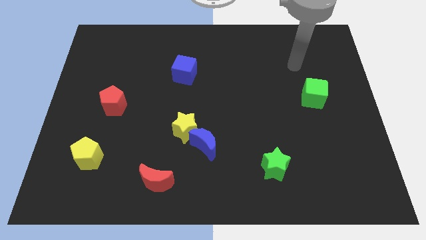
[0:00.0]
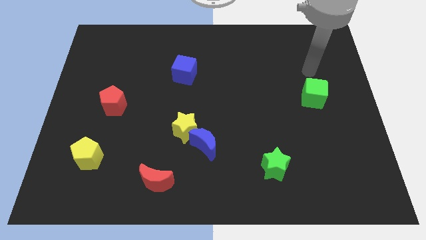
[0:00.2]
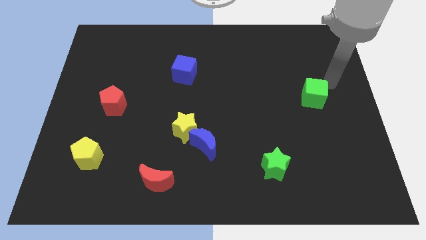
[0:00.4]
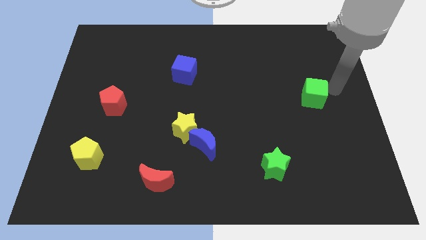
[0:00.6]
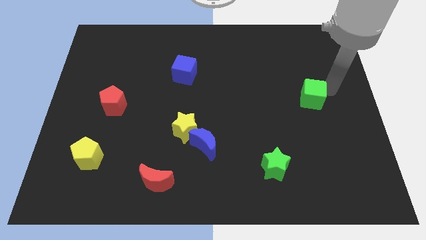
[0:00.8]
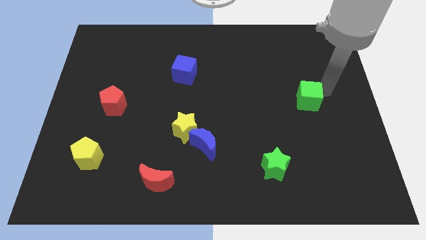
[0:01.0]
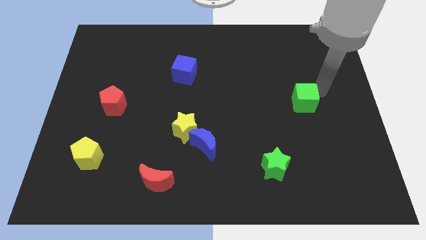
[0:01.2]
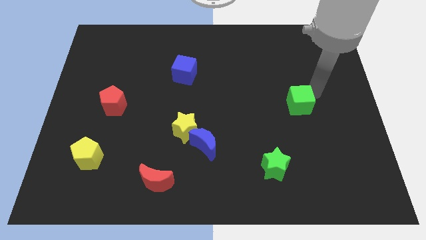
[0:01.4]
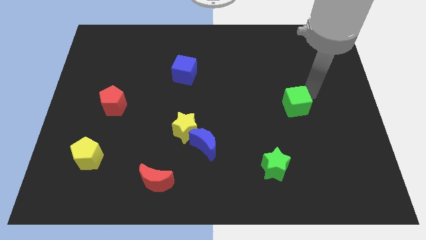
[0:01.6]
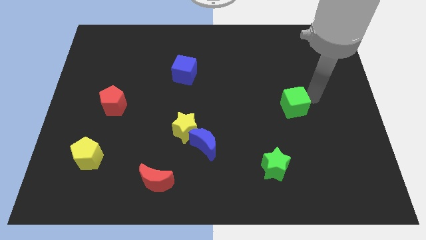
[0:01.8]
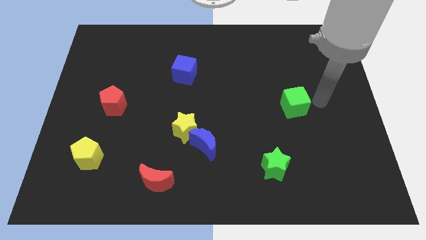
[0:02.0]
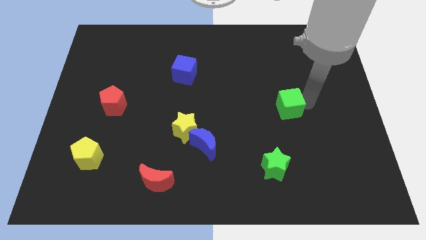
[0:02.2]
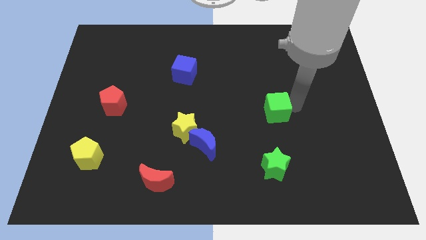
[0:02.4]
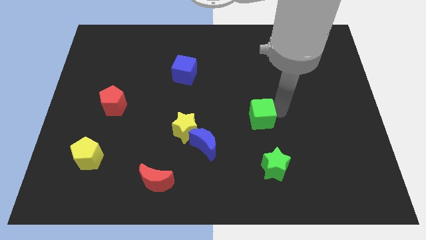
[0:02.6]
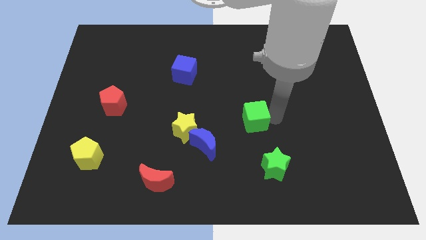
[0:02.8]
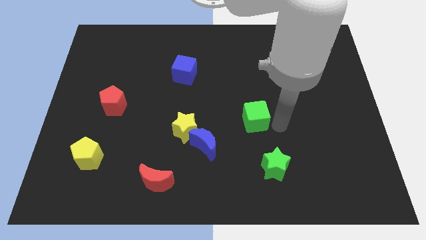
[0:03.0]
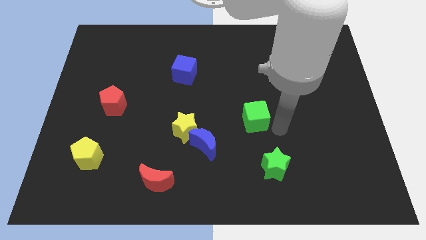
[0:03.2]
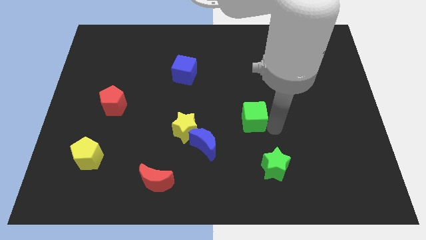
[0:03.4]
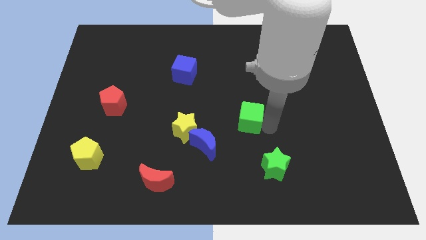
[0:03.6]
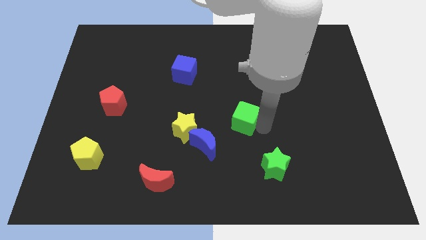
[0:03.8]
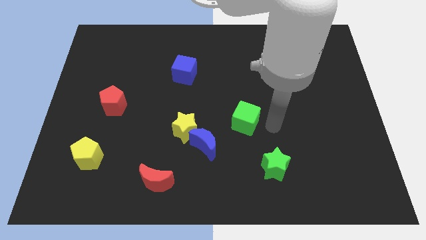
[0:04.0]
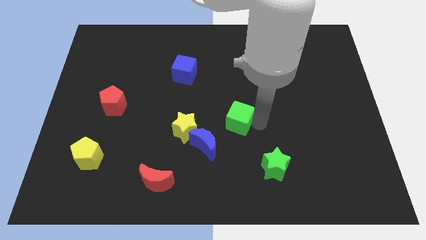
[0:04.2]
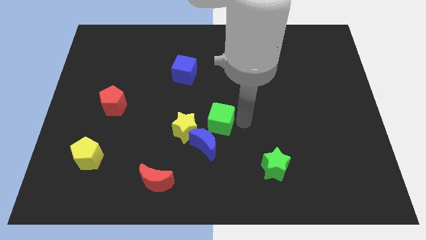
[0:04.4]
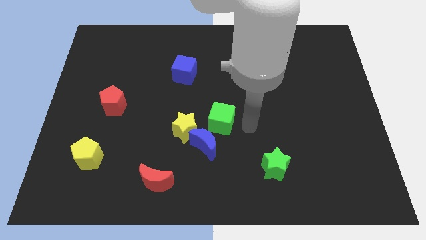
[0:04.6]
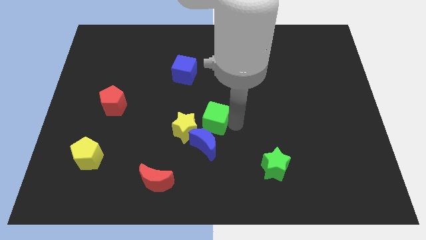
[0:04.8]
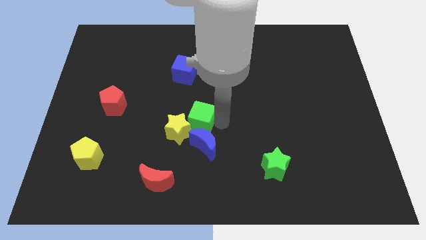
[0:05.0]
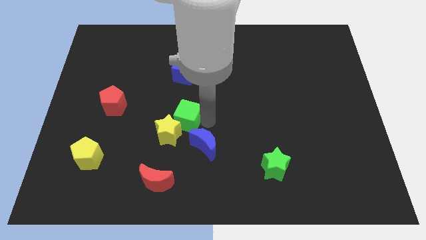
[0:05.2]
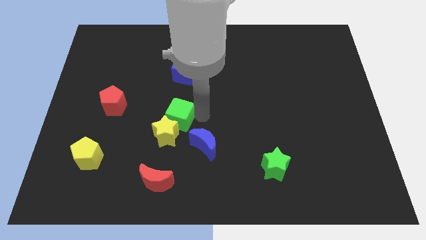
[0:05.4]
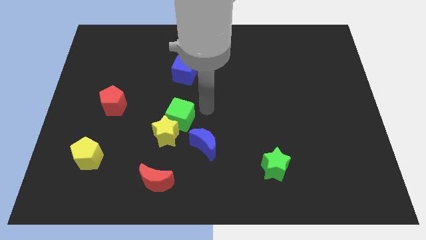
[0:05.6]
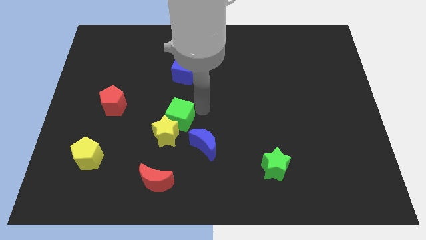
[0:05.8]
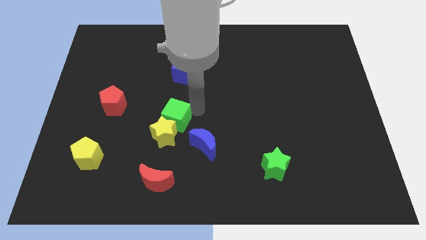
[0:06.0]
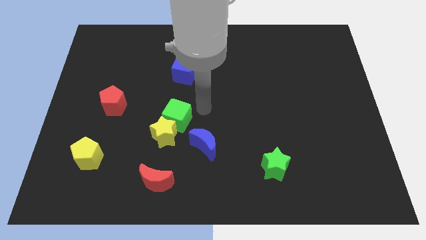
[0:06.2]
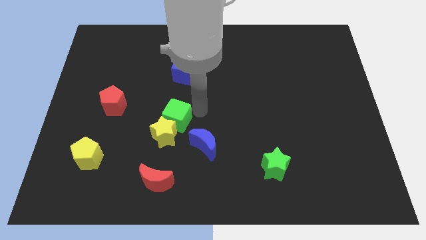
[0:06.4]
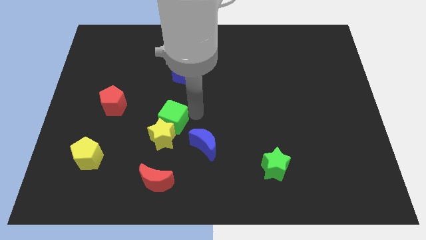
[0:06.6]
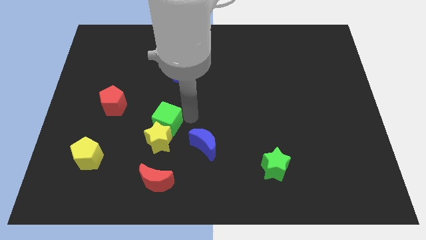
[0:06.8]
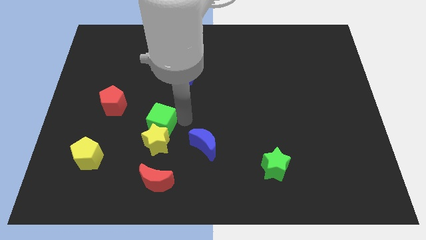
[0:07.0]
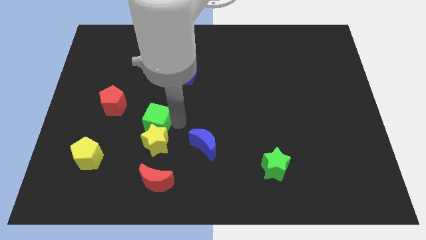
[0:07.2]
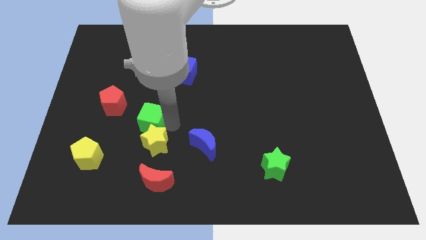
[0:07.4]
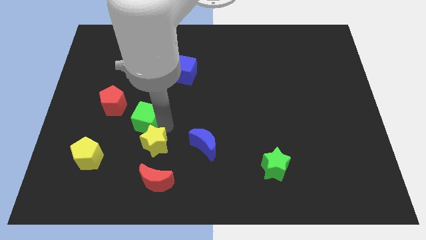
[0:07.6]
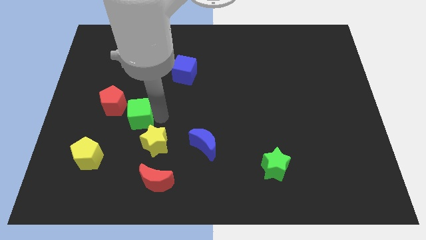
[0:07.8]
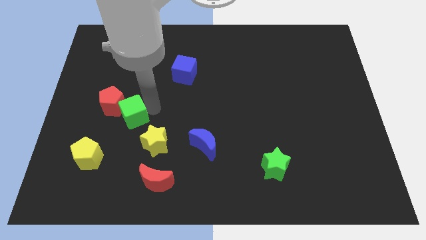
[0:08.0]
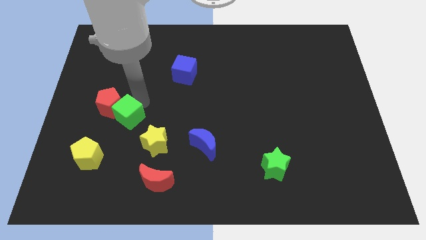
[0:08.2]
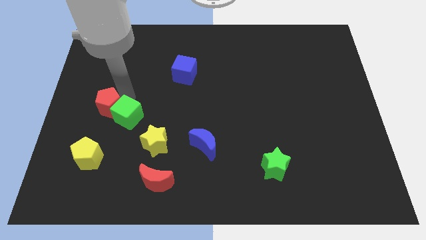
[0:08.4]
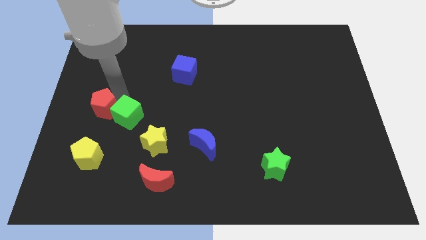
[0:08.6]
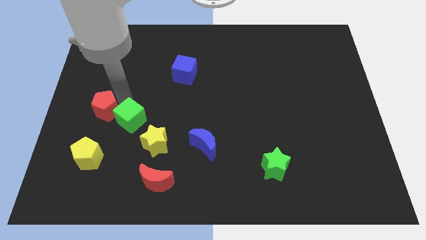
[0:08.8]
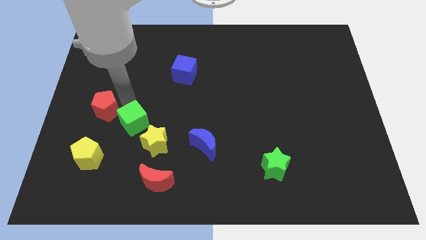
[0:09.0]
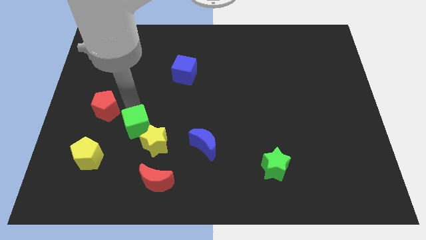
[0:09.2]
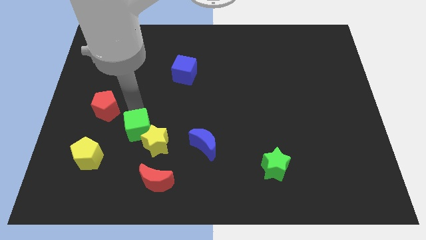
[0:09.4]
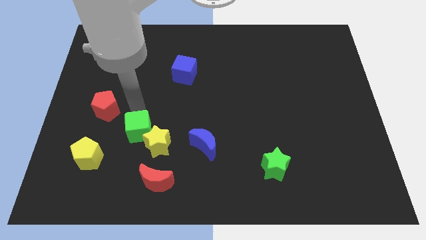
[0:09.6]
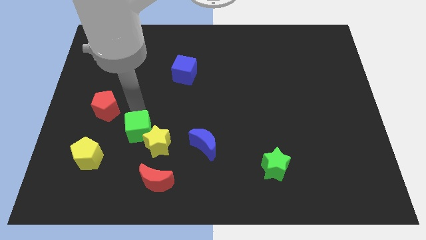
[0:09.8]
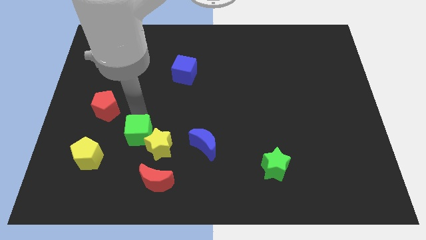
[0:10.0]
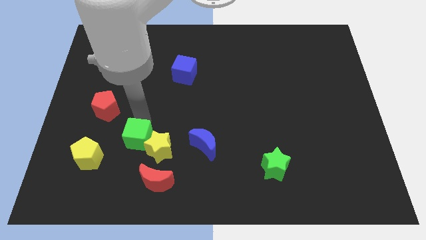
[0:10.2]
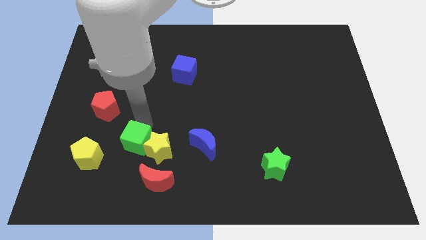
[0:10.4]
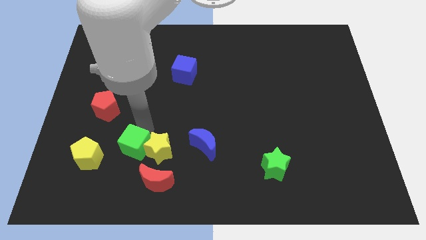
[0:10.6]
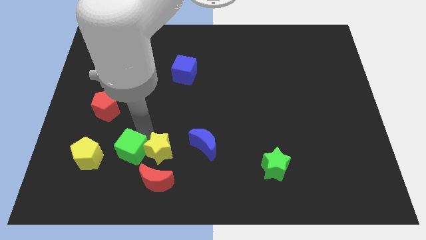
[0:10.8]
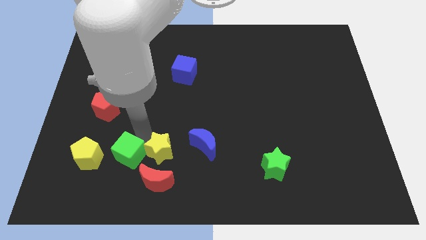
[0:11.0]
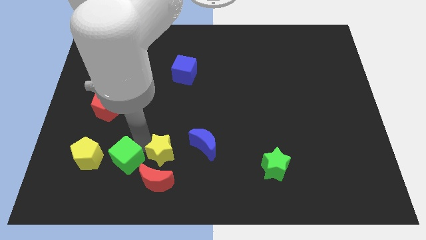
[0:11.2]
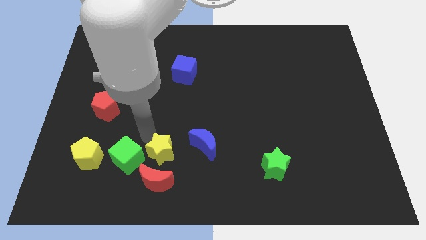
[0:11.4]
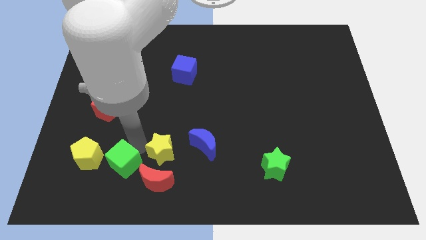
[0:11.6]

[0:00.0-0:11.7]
slide the green cube to the left of the red moon

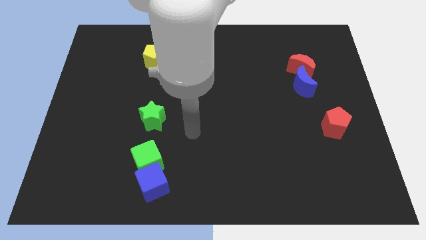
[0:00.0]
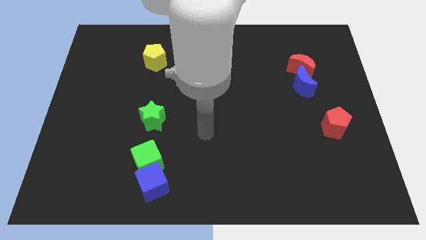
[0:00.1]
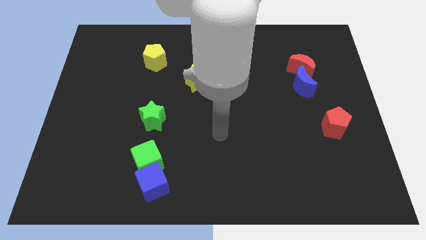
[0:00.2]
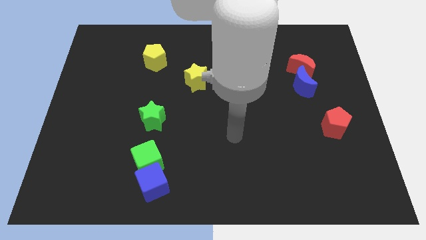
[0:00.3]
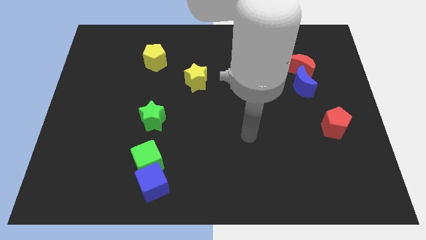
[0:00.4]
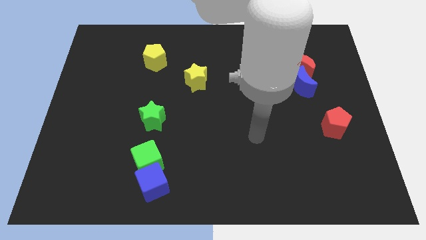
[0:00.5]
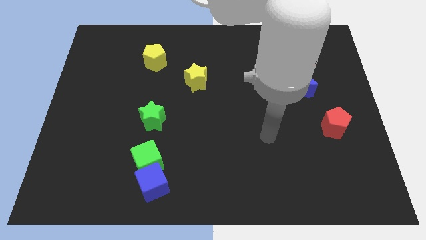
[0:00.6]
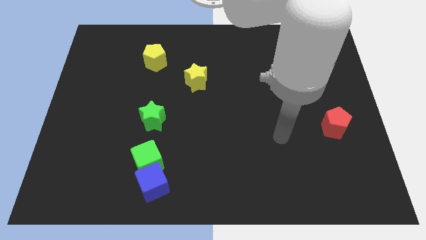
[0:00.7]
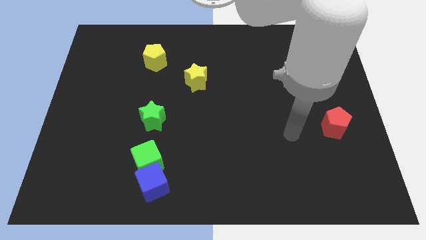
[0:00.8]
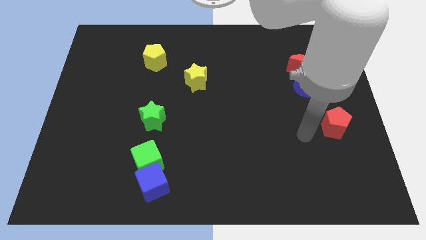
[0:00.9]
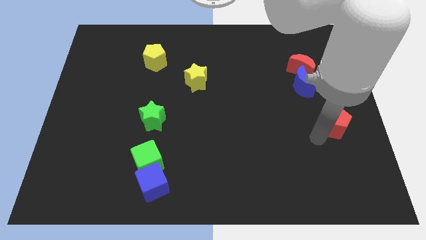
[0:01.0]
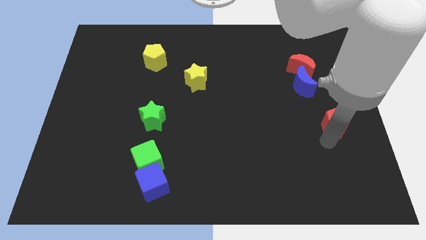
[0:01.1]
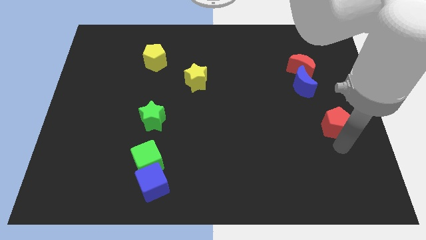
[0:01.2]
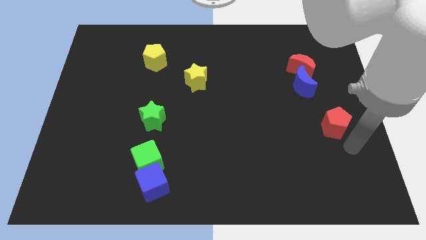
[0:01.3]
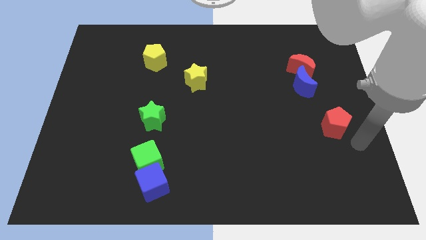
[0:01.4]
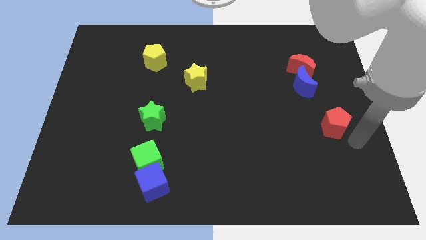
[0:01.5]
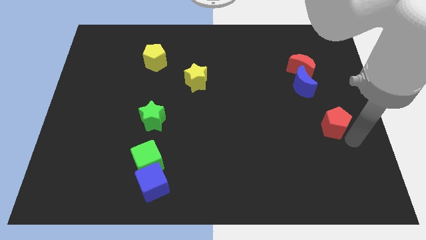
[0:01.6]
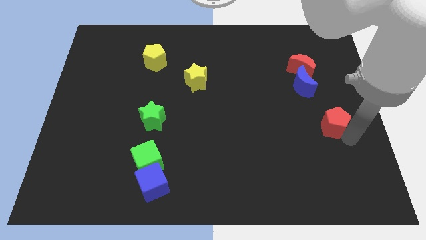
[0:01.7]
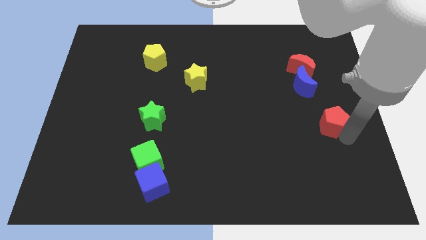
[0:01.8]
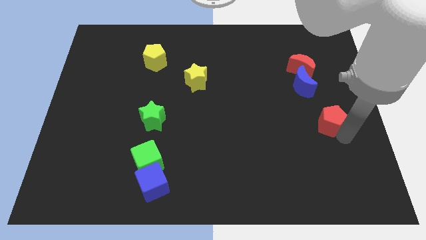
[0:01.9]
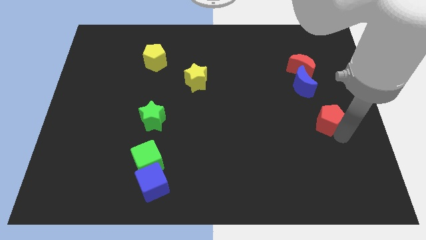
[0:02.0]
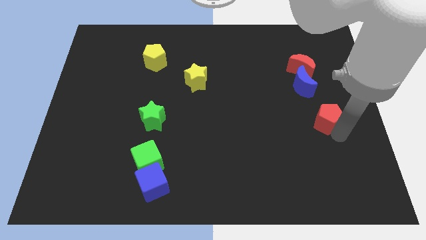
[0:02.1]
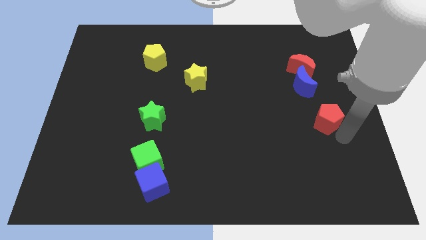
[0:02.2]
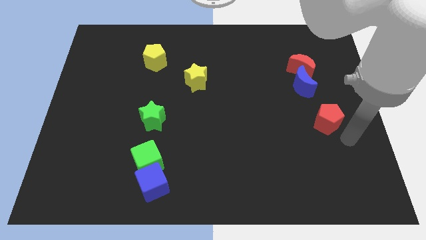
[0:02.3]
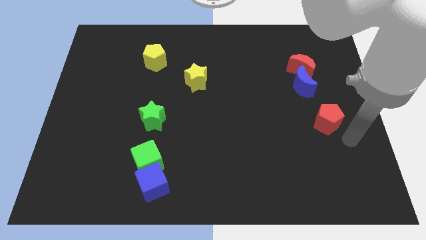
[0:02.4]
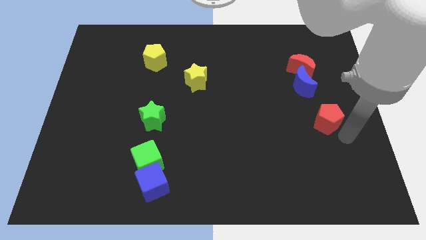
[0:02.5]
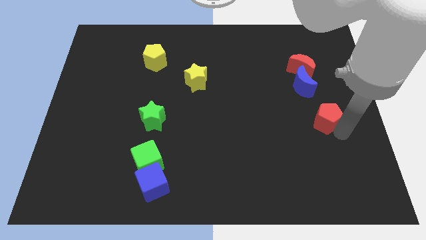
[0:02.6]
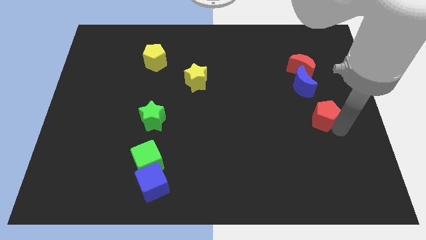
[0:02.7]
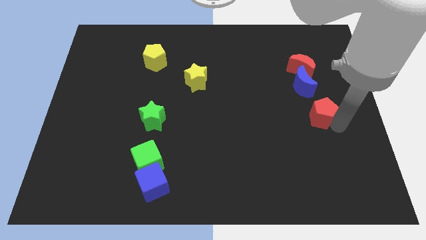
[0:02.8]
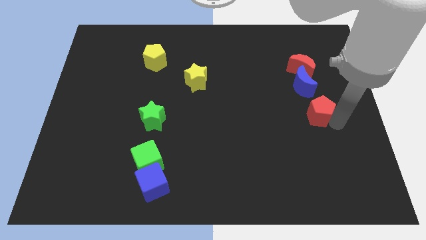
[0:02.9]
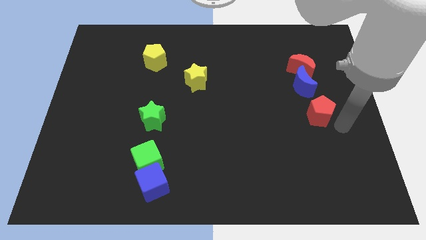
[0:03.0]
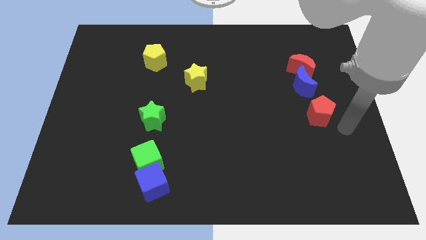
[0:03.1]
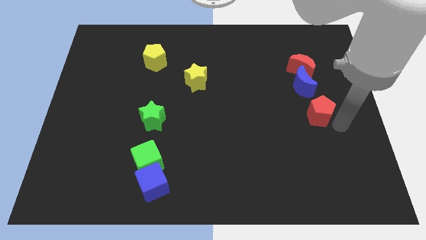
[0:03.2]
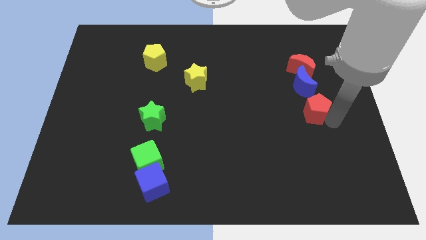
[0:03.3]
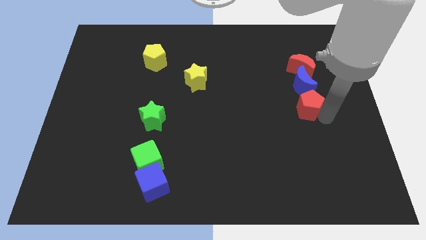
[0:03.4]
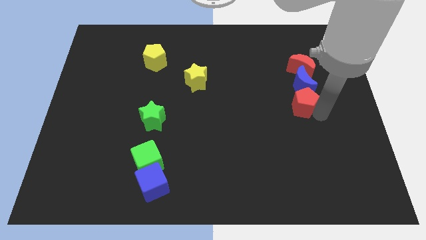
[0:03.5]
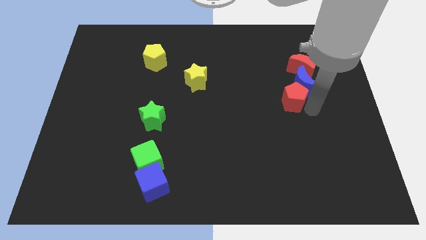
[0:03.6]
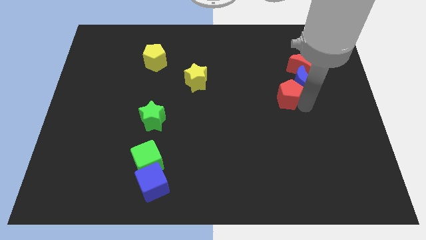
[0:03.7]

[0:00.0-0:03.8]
push the red pentagon to the left side of the blue moon
